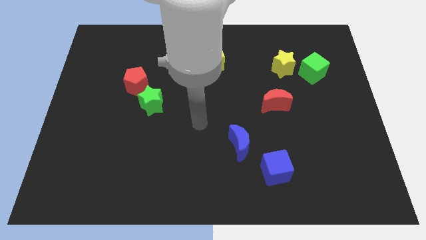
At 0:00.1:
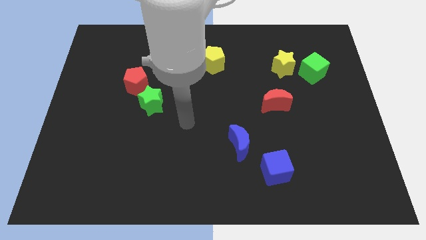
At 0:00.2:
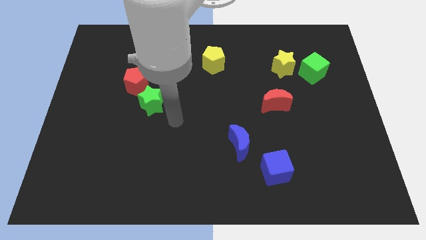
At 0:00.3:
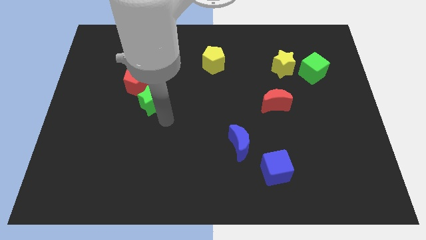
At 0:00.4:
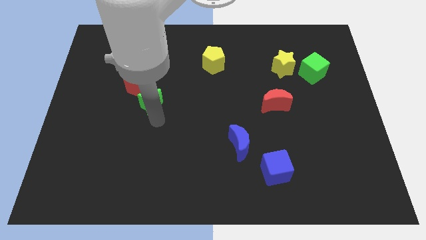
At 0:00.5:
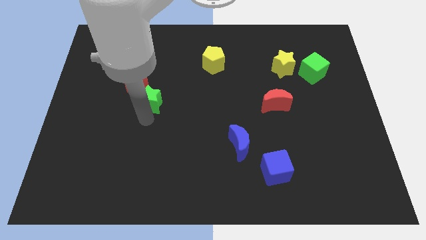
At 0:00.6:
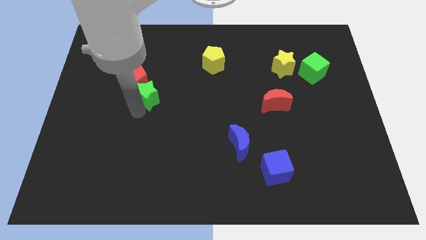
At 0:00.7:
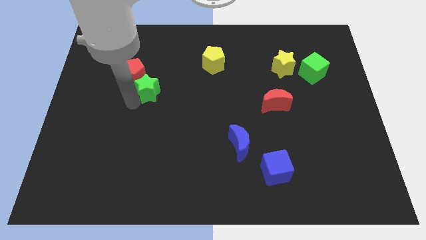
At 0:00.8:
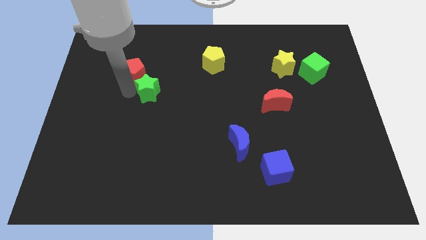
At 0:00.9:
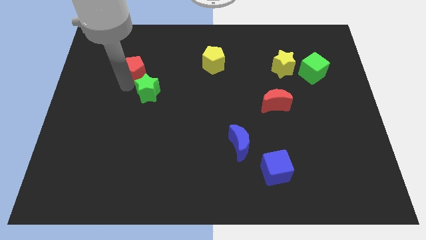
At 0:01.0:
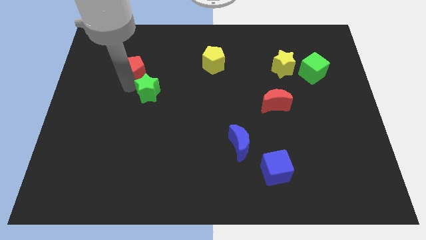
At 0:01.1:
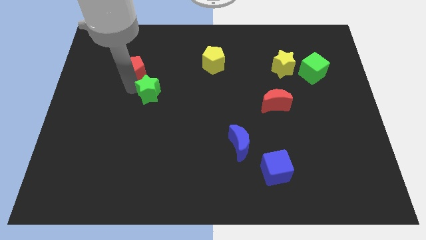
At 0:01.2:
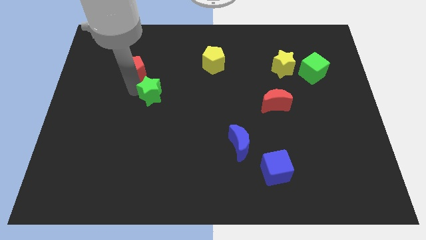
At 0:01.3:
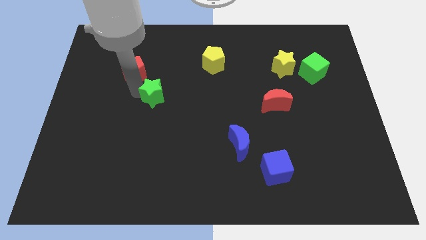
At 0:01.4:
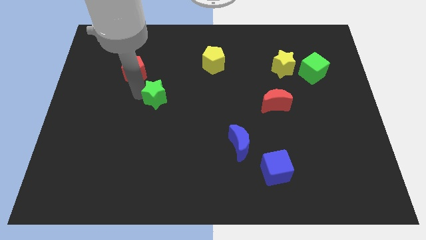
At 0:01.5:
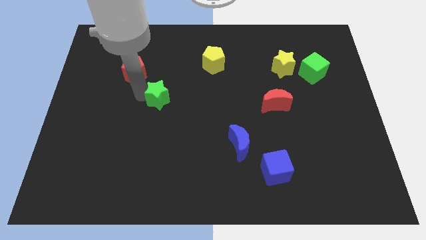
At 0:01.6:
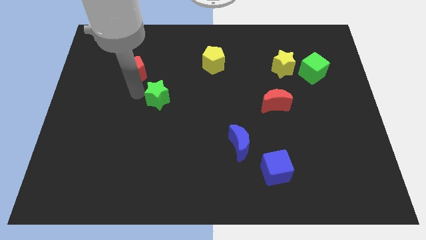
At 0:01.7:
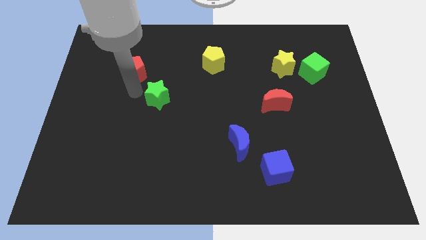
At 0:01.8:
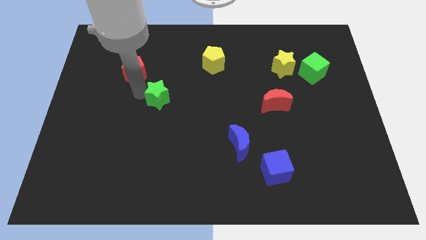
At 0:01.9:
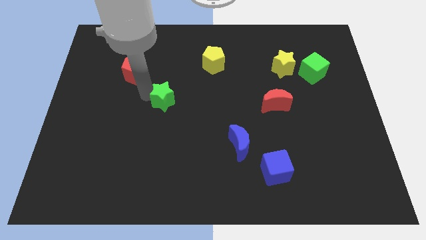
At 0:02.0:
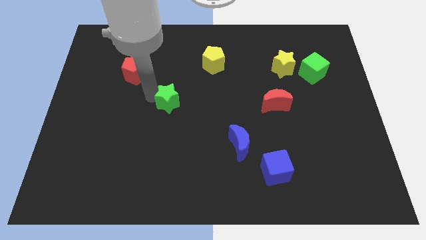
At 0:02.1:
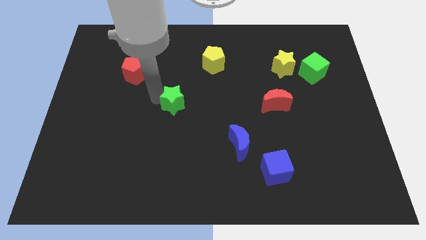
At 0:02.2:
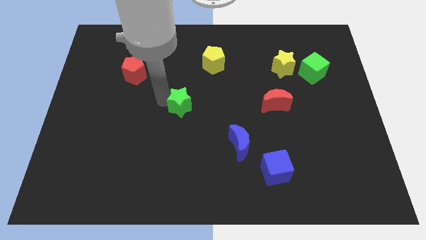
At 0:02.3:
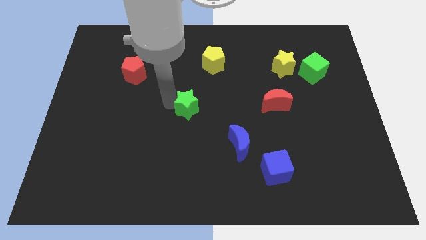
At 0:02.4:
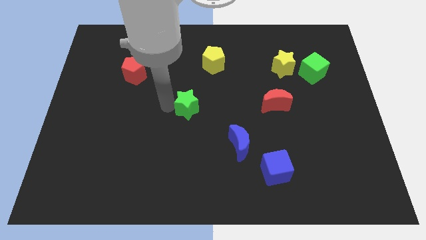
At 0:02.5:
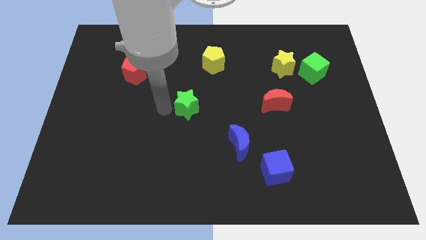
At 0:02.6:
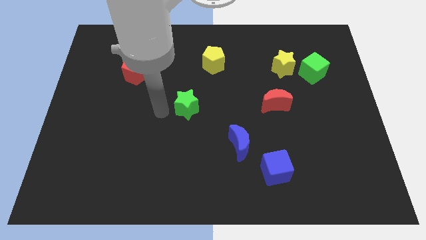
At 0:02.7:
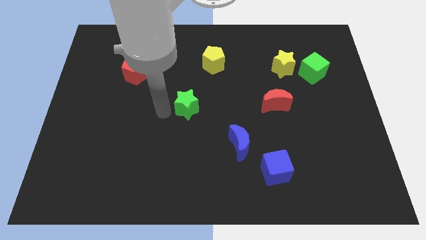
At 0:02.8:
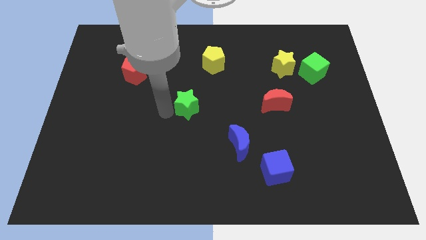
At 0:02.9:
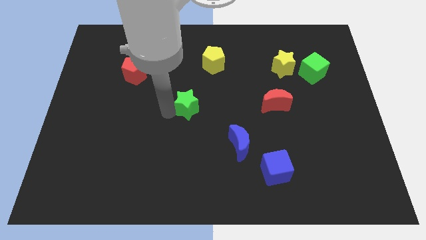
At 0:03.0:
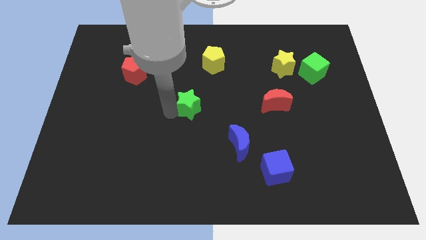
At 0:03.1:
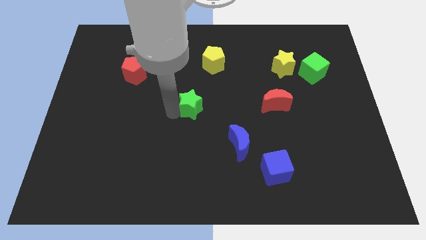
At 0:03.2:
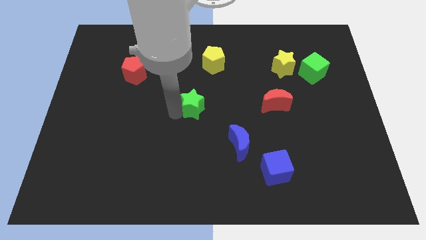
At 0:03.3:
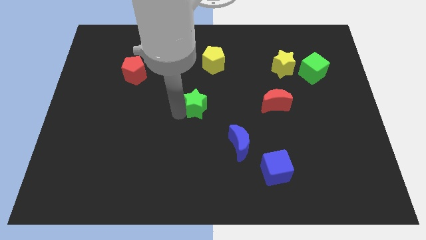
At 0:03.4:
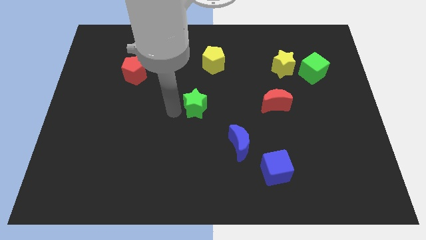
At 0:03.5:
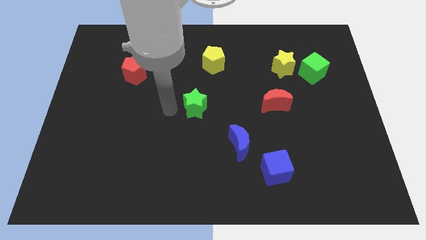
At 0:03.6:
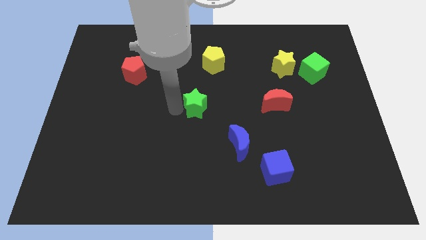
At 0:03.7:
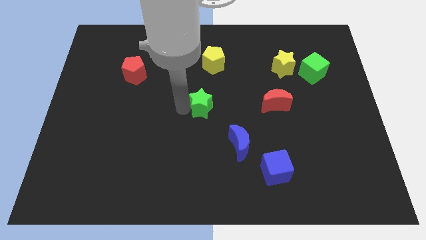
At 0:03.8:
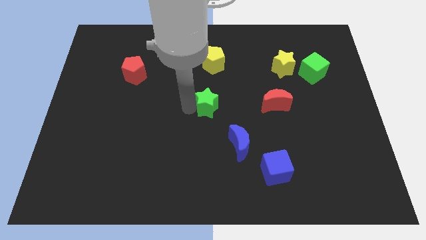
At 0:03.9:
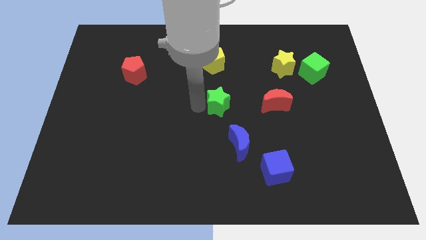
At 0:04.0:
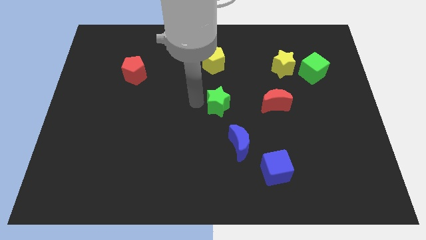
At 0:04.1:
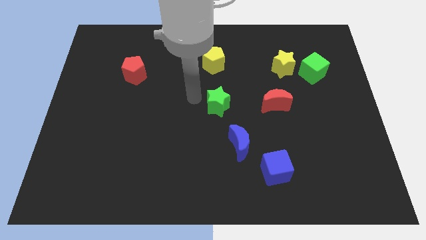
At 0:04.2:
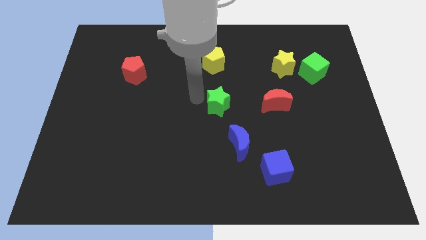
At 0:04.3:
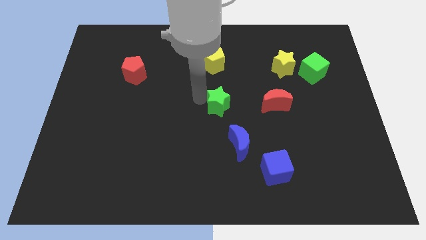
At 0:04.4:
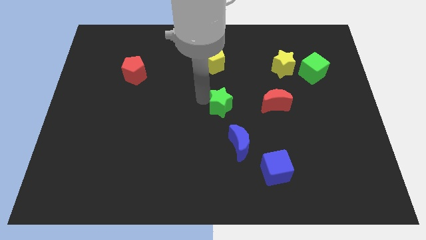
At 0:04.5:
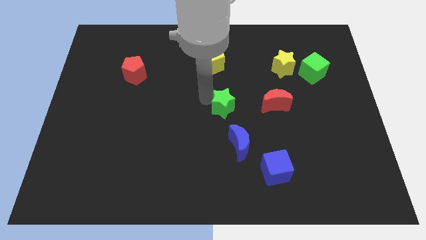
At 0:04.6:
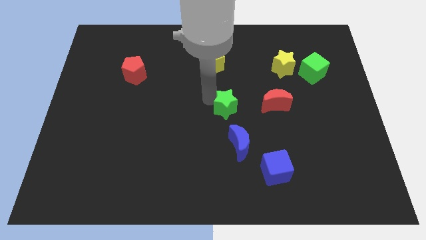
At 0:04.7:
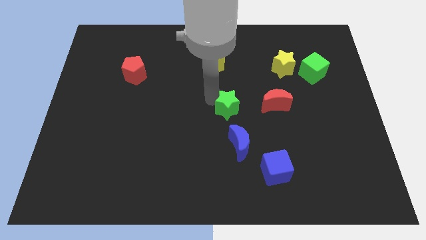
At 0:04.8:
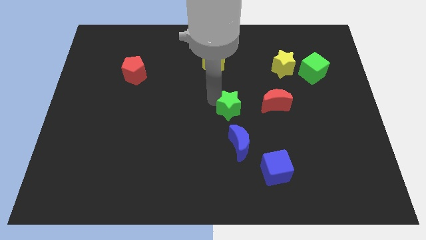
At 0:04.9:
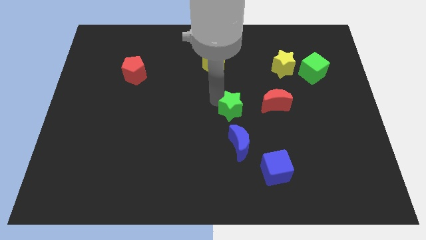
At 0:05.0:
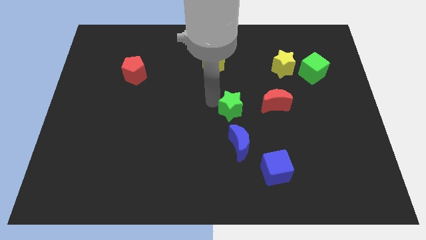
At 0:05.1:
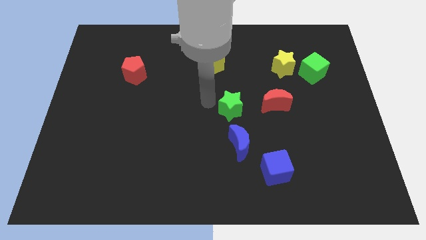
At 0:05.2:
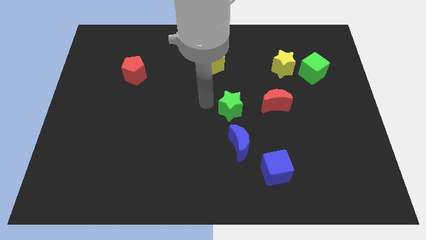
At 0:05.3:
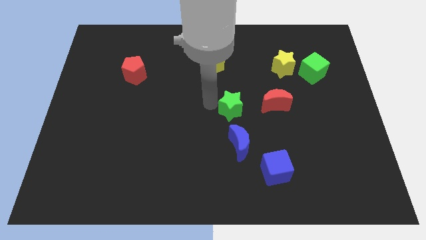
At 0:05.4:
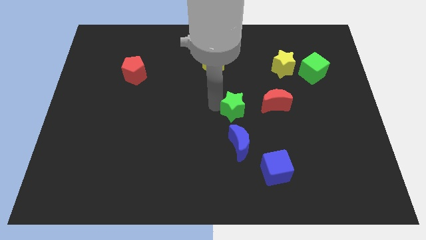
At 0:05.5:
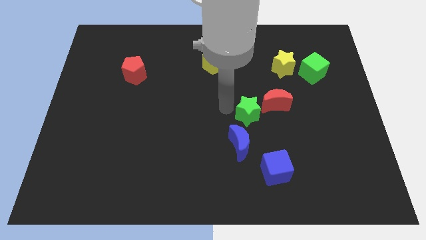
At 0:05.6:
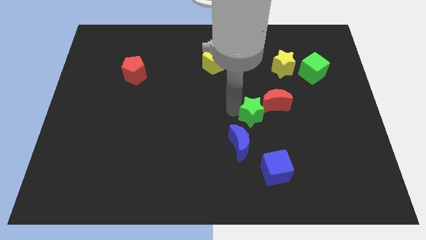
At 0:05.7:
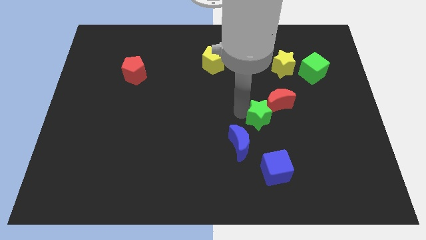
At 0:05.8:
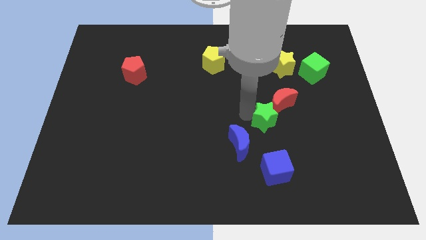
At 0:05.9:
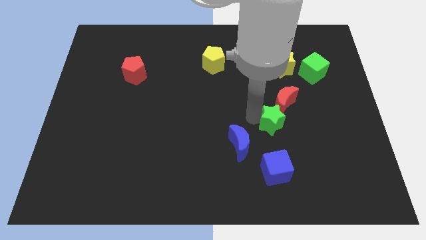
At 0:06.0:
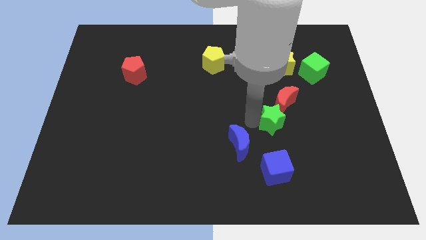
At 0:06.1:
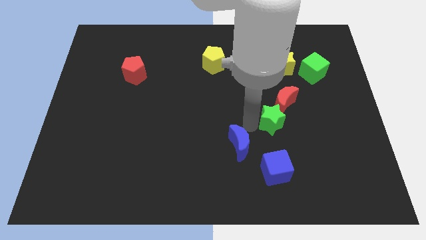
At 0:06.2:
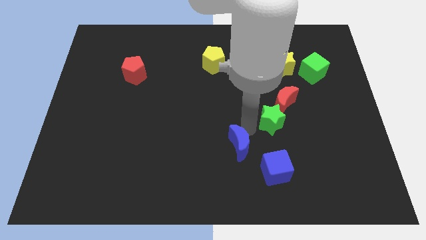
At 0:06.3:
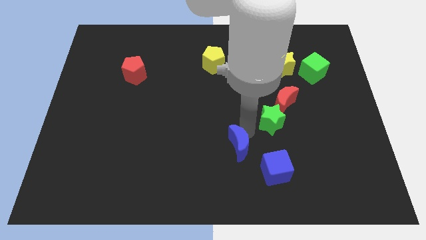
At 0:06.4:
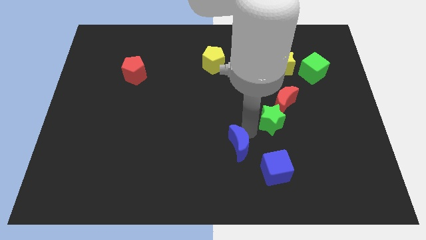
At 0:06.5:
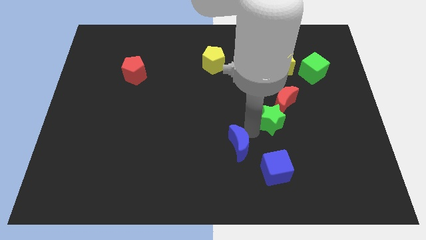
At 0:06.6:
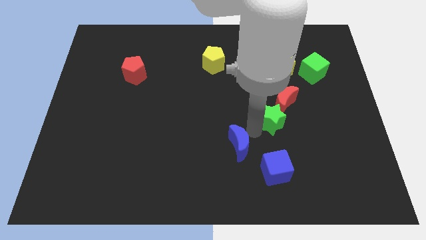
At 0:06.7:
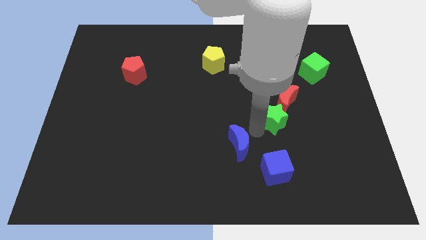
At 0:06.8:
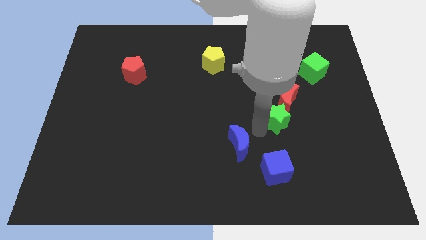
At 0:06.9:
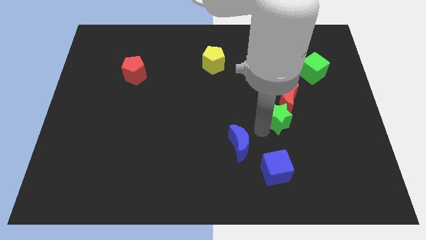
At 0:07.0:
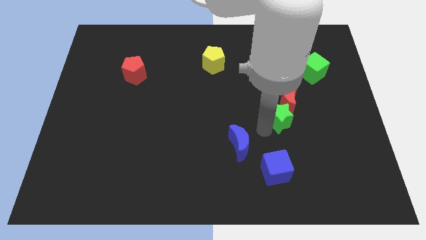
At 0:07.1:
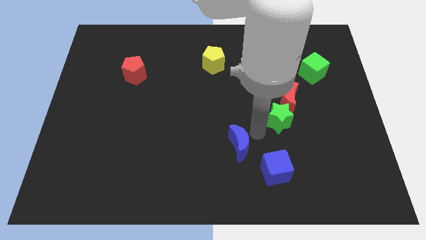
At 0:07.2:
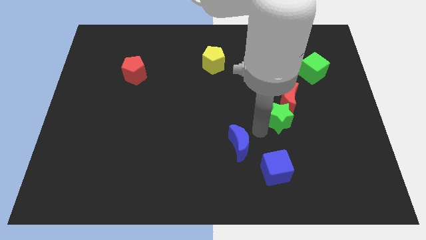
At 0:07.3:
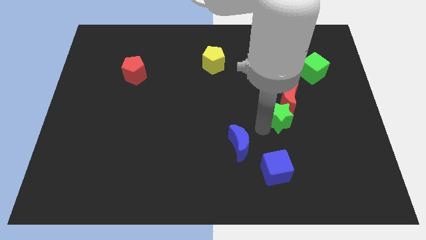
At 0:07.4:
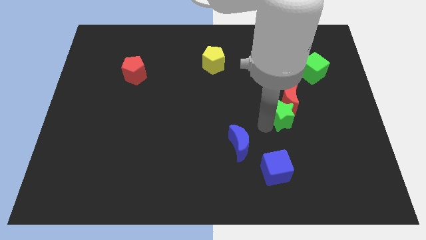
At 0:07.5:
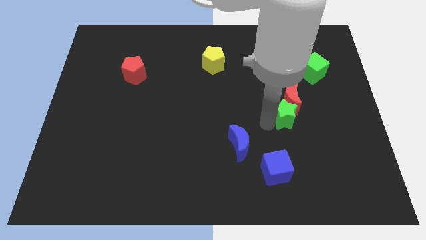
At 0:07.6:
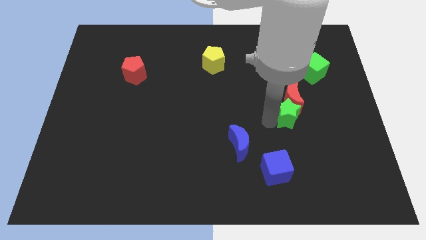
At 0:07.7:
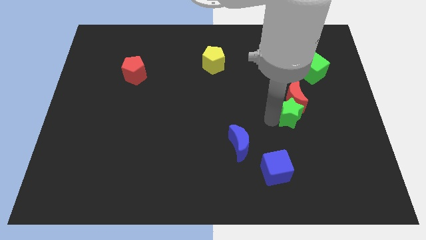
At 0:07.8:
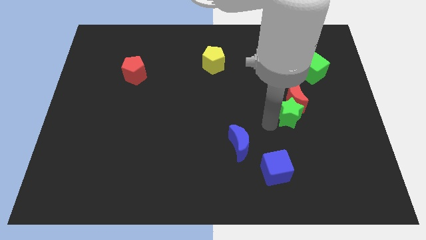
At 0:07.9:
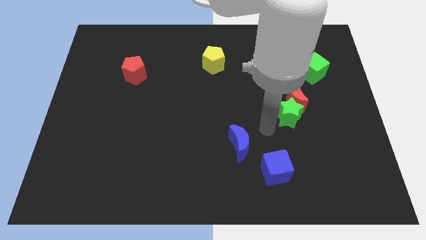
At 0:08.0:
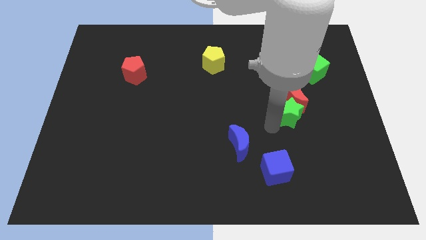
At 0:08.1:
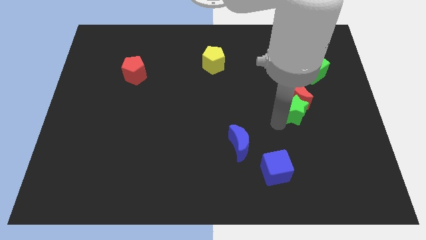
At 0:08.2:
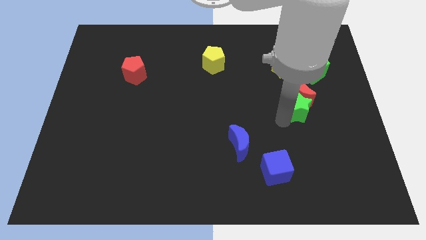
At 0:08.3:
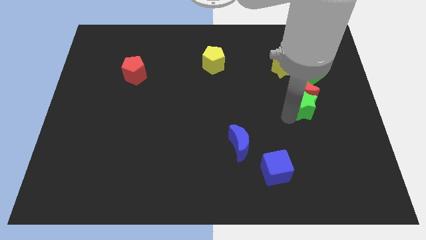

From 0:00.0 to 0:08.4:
slide the green star to the bottom side of the green cube

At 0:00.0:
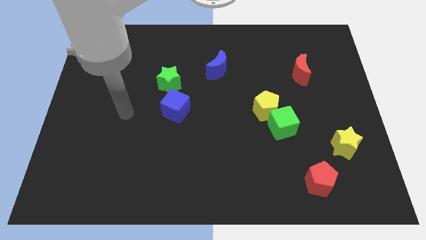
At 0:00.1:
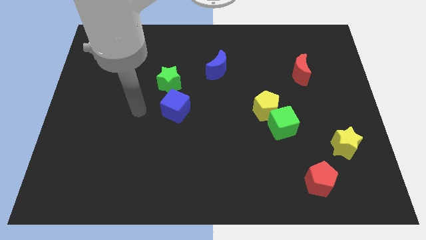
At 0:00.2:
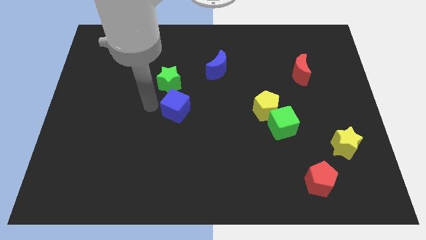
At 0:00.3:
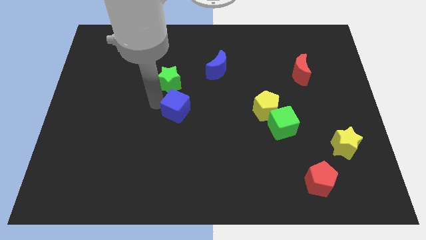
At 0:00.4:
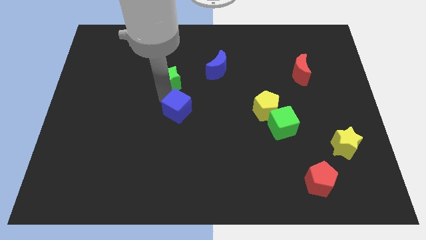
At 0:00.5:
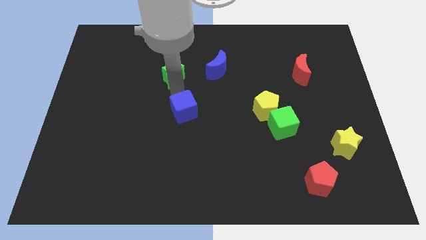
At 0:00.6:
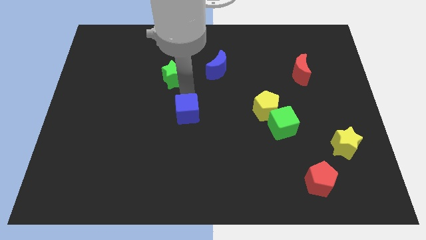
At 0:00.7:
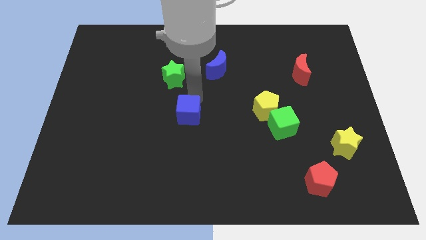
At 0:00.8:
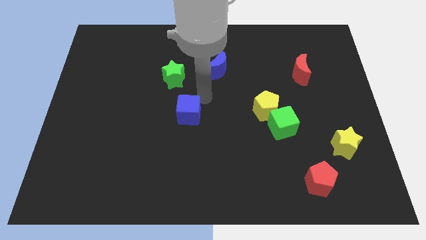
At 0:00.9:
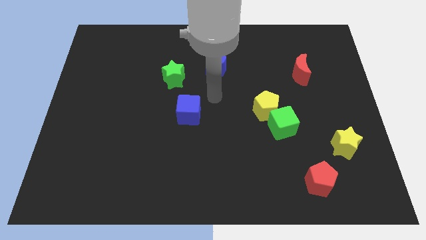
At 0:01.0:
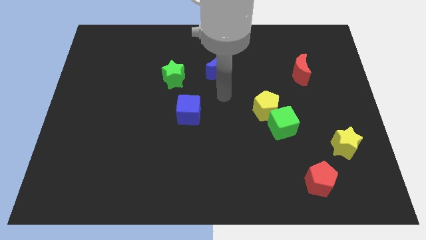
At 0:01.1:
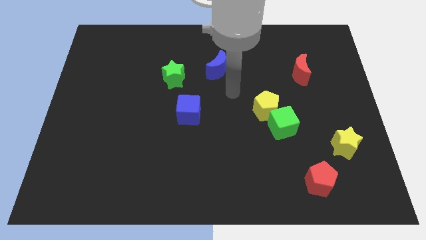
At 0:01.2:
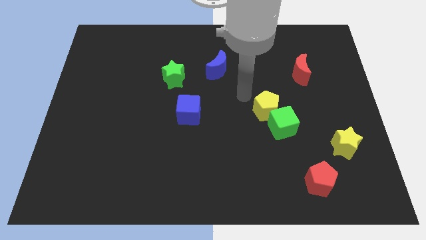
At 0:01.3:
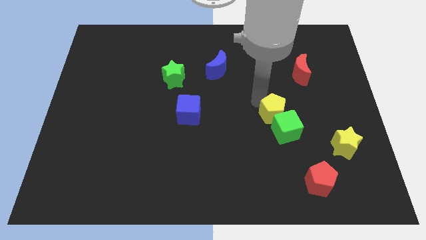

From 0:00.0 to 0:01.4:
push the green cube left of the yellow star
